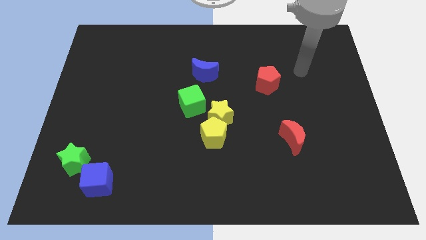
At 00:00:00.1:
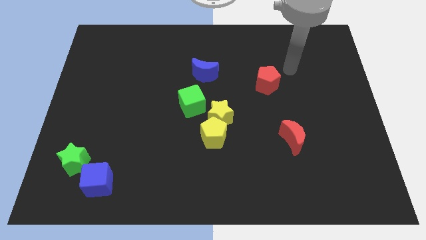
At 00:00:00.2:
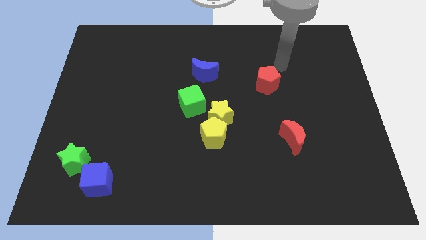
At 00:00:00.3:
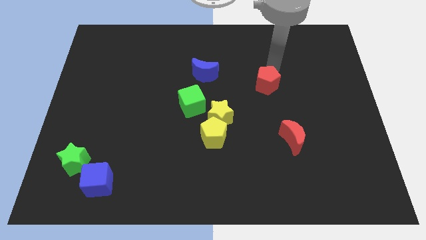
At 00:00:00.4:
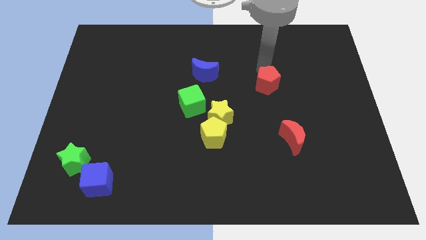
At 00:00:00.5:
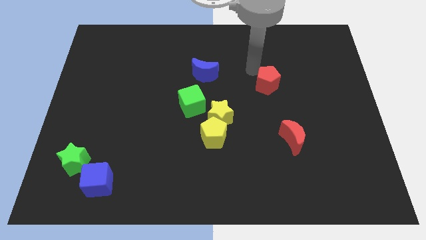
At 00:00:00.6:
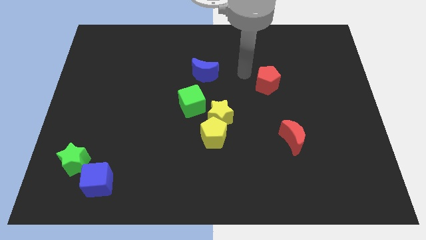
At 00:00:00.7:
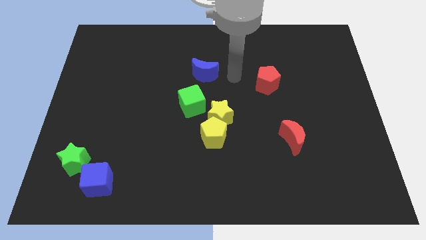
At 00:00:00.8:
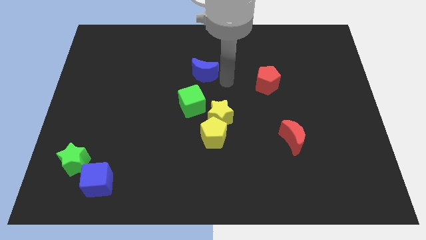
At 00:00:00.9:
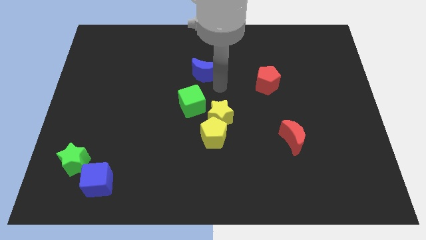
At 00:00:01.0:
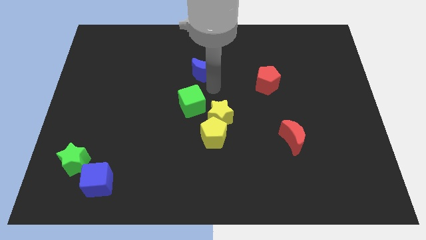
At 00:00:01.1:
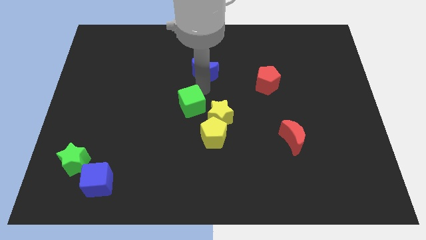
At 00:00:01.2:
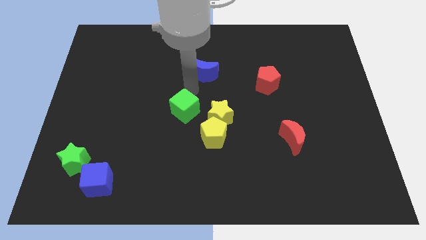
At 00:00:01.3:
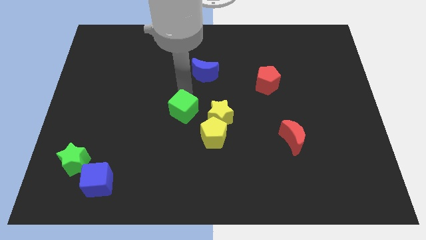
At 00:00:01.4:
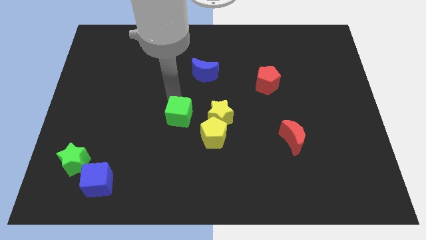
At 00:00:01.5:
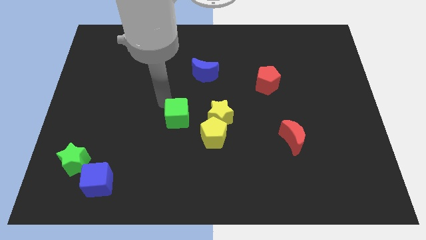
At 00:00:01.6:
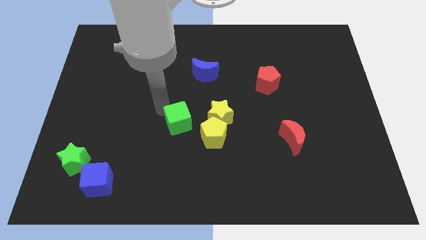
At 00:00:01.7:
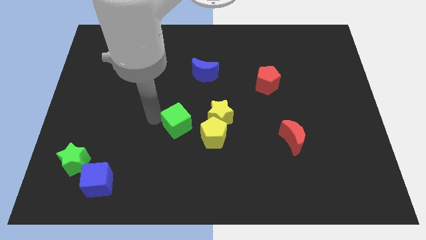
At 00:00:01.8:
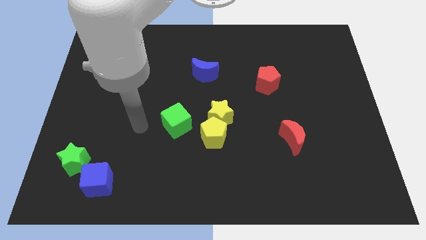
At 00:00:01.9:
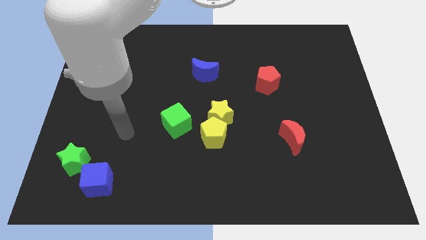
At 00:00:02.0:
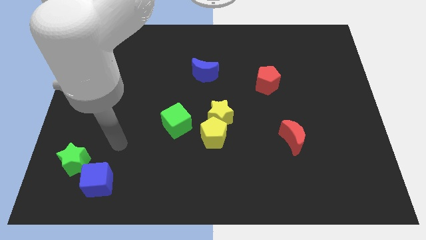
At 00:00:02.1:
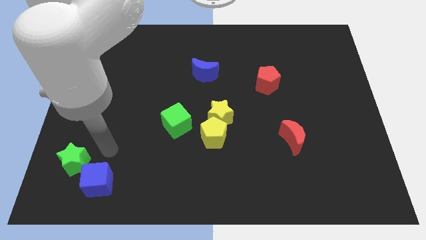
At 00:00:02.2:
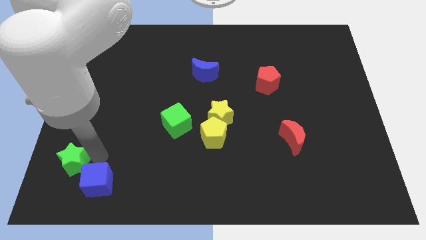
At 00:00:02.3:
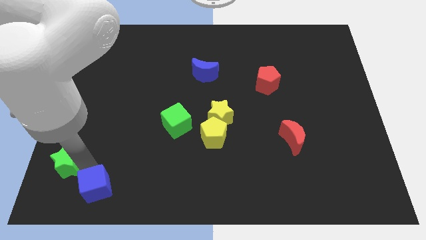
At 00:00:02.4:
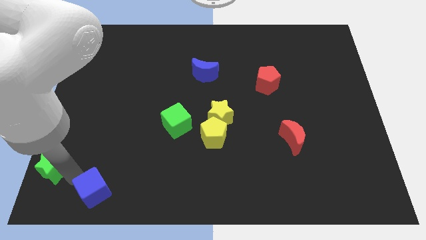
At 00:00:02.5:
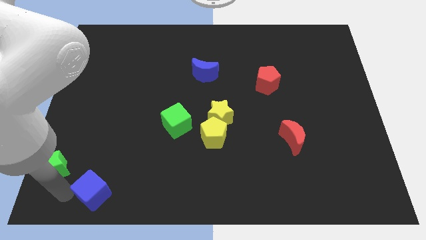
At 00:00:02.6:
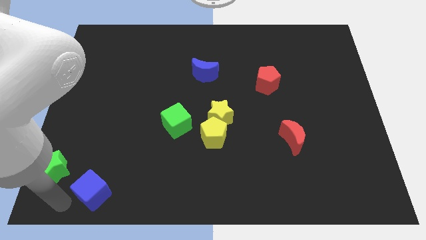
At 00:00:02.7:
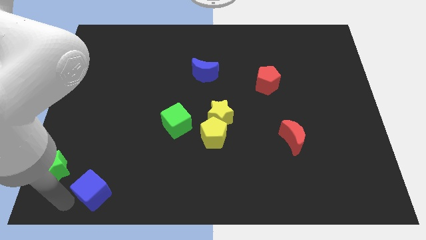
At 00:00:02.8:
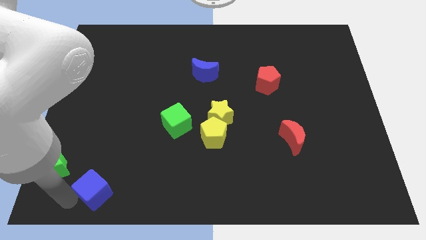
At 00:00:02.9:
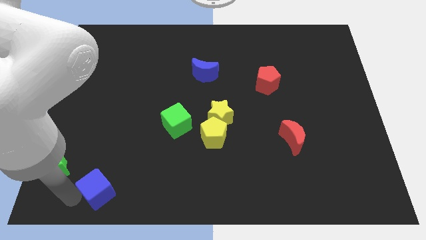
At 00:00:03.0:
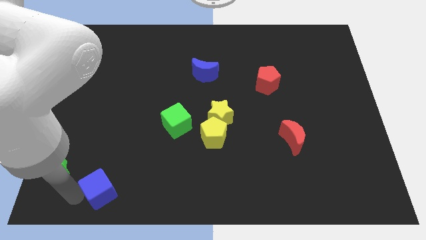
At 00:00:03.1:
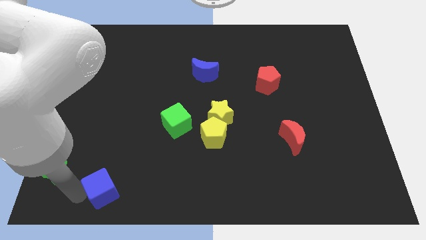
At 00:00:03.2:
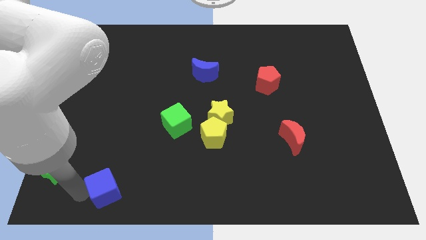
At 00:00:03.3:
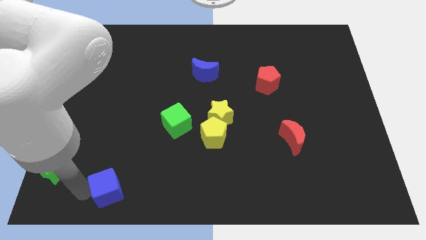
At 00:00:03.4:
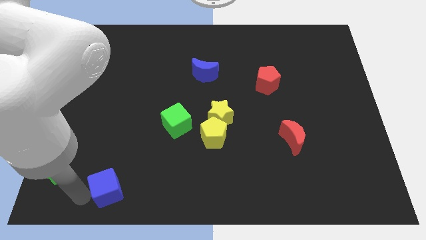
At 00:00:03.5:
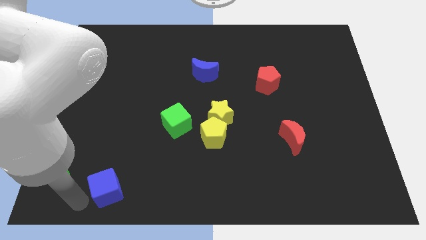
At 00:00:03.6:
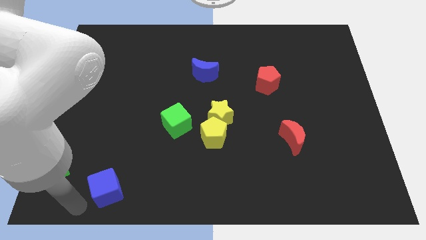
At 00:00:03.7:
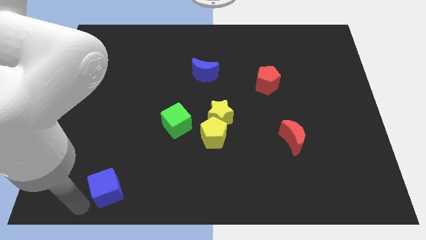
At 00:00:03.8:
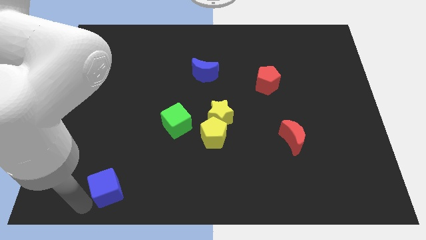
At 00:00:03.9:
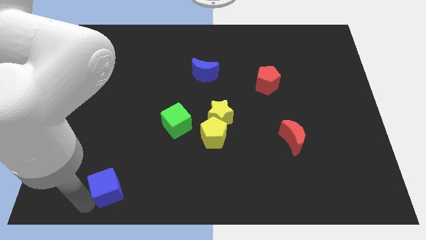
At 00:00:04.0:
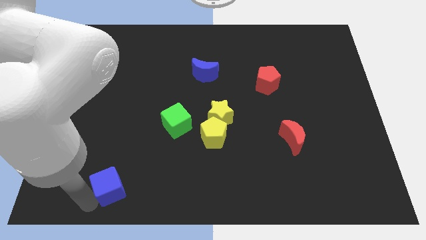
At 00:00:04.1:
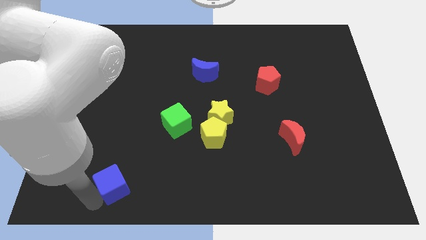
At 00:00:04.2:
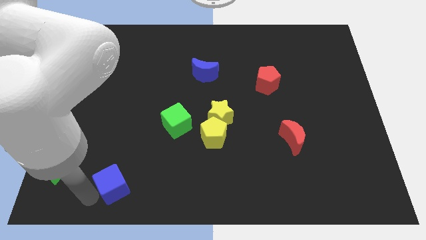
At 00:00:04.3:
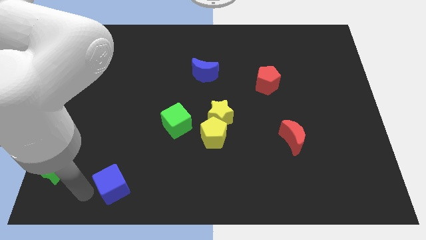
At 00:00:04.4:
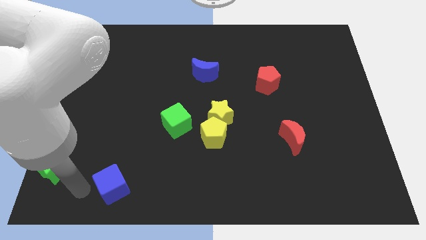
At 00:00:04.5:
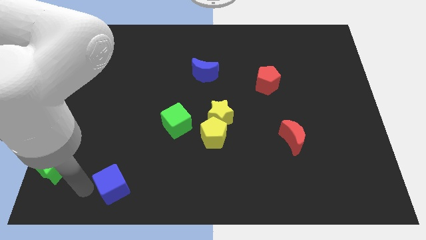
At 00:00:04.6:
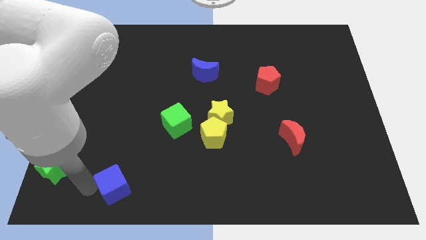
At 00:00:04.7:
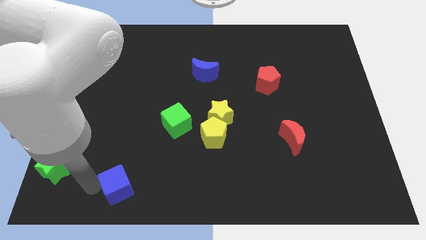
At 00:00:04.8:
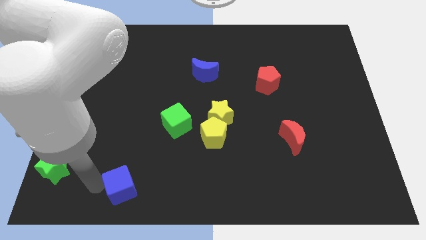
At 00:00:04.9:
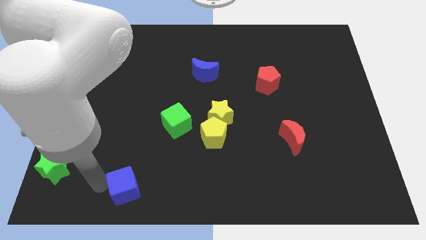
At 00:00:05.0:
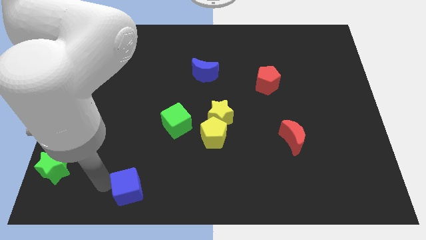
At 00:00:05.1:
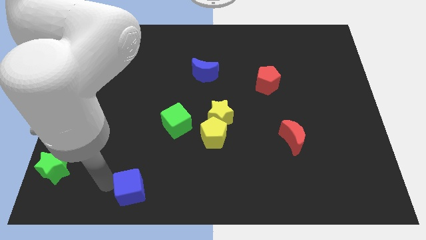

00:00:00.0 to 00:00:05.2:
slightly push the blue cube to the right

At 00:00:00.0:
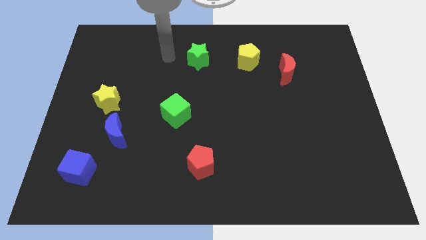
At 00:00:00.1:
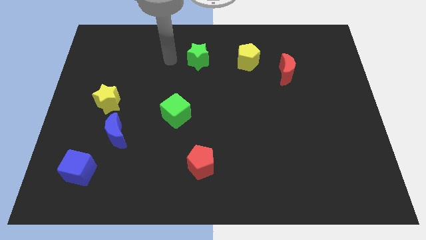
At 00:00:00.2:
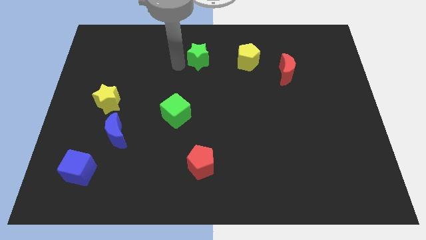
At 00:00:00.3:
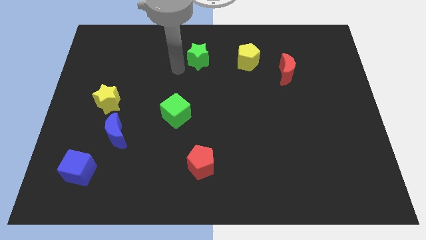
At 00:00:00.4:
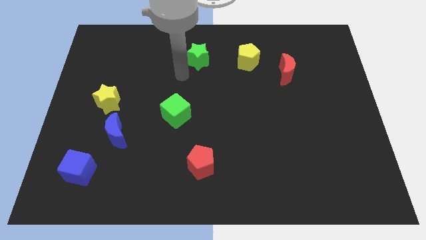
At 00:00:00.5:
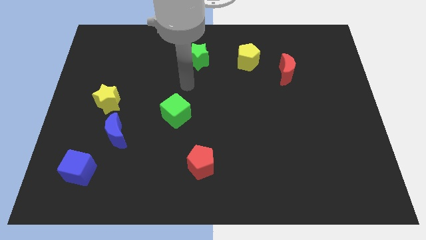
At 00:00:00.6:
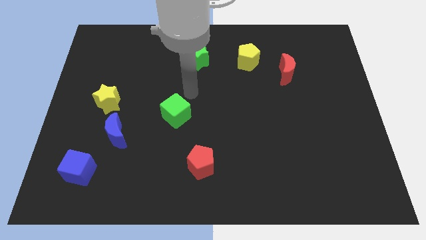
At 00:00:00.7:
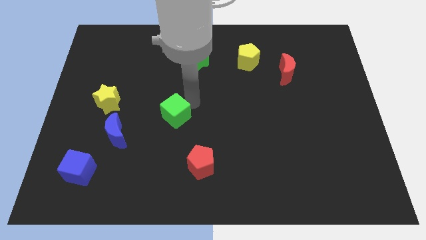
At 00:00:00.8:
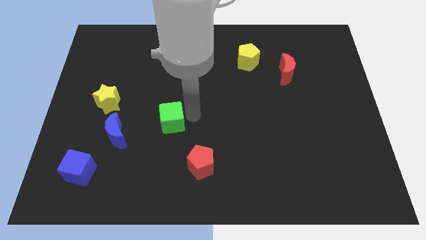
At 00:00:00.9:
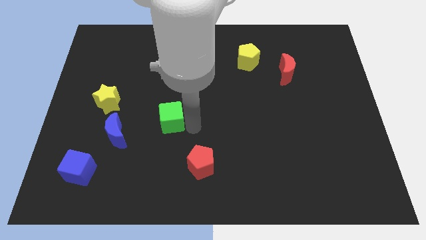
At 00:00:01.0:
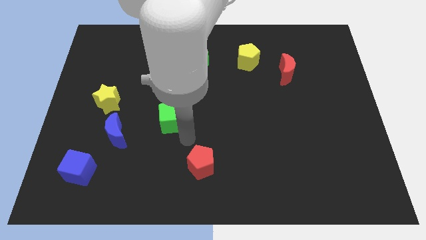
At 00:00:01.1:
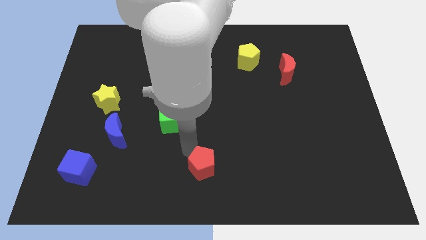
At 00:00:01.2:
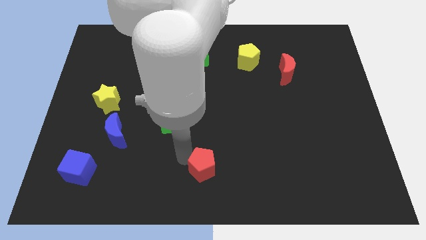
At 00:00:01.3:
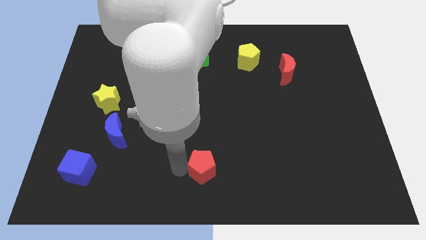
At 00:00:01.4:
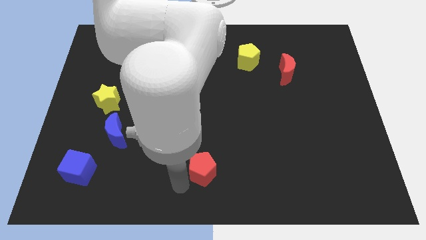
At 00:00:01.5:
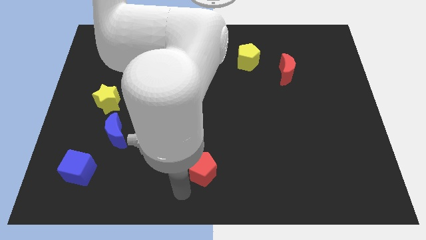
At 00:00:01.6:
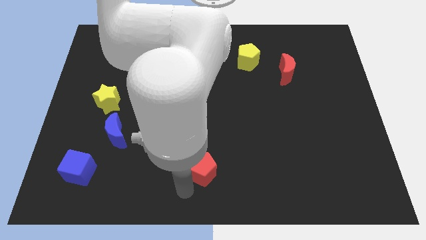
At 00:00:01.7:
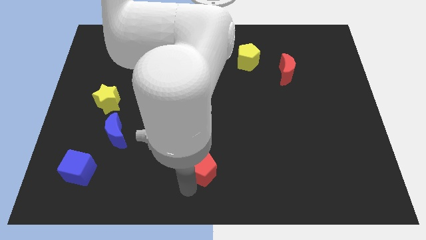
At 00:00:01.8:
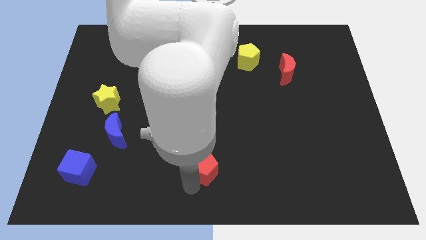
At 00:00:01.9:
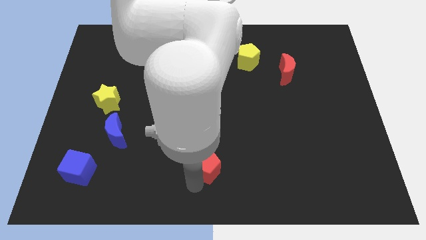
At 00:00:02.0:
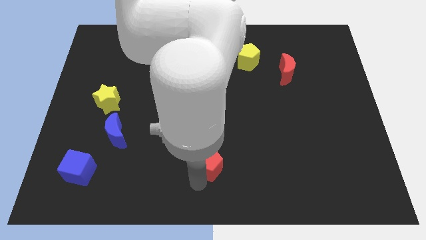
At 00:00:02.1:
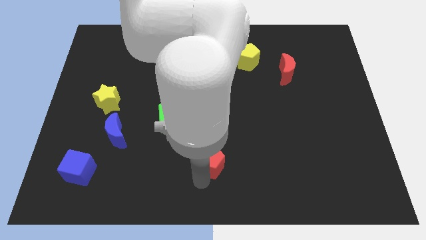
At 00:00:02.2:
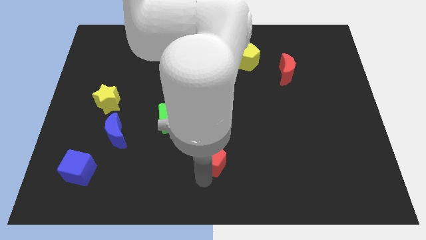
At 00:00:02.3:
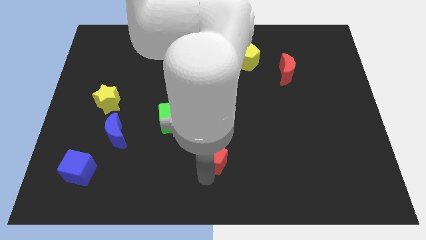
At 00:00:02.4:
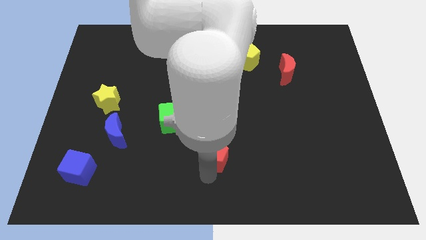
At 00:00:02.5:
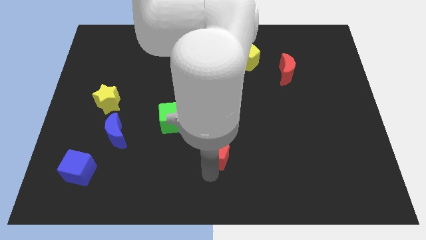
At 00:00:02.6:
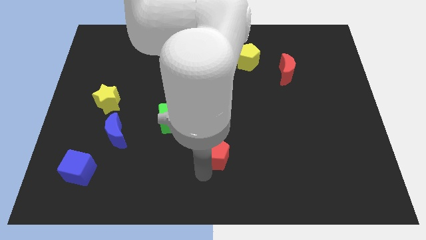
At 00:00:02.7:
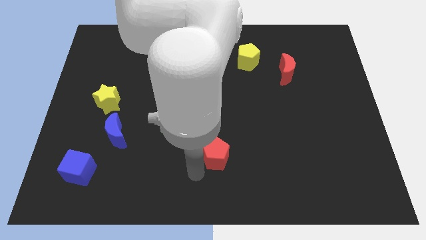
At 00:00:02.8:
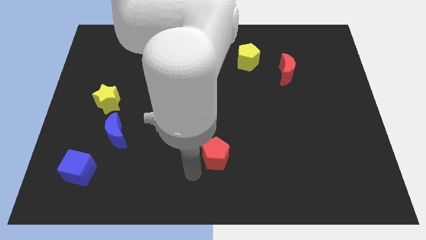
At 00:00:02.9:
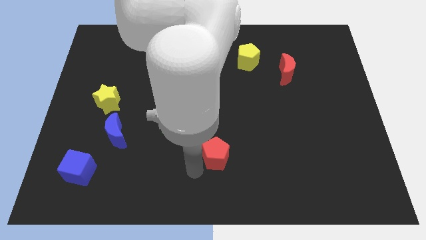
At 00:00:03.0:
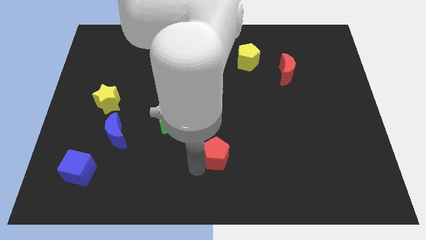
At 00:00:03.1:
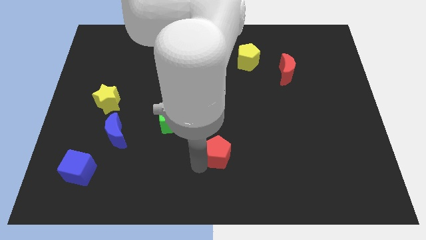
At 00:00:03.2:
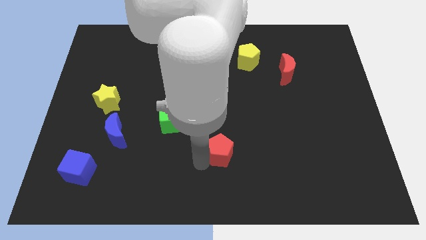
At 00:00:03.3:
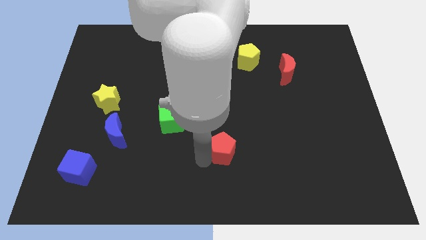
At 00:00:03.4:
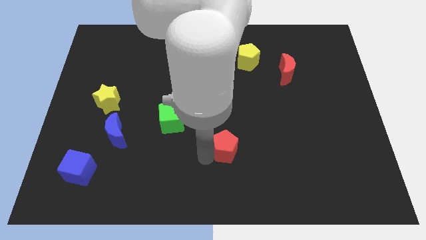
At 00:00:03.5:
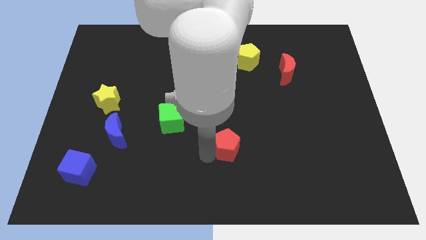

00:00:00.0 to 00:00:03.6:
slightly slide the red pentagon up and right diagonally
